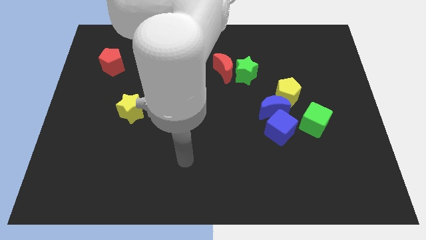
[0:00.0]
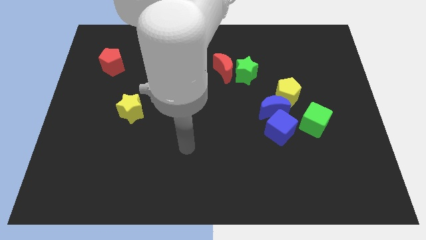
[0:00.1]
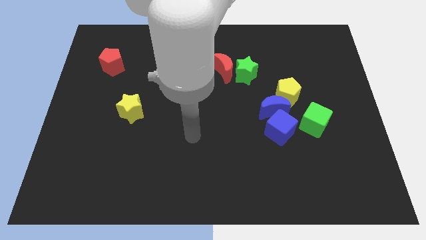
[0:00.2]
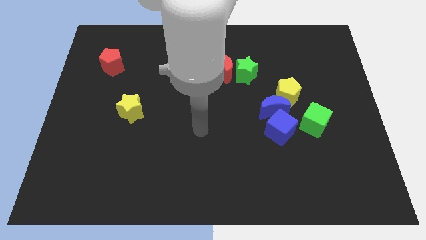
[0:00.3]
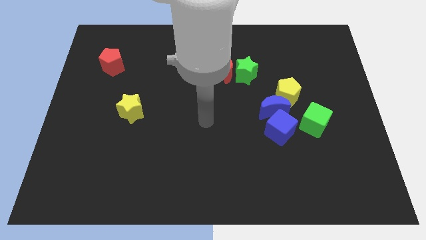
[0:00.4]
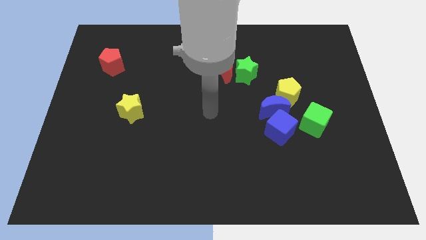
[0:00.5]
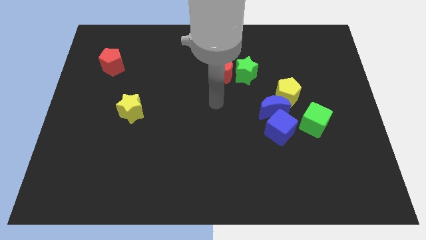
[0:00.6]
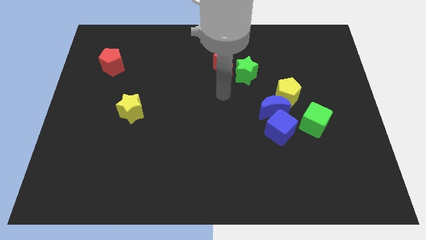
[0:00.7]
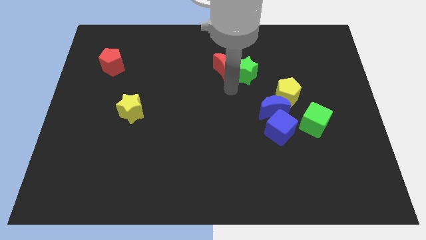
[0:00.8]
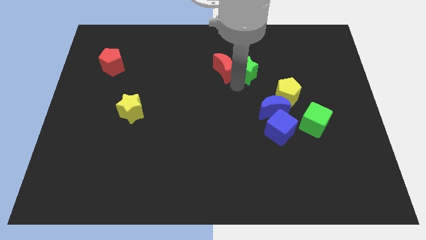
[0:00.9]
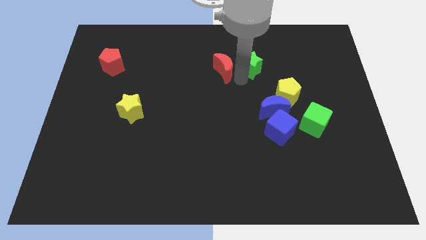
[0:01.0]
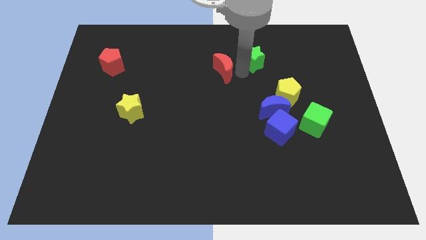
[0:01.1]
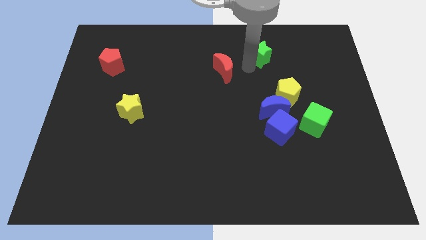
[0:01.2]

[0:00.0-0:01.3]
move the red moon away from the green star

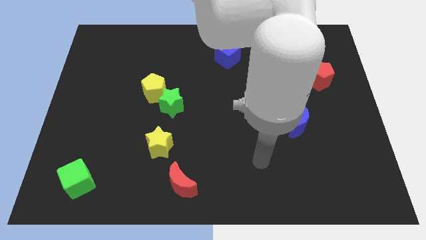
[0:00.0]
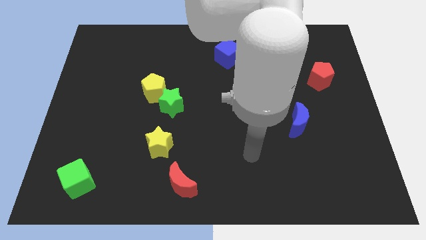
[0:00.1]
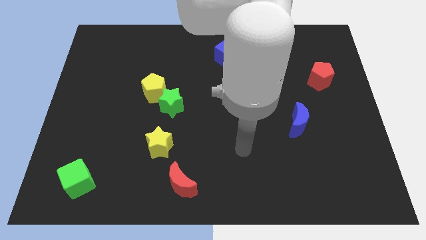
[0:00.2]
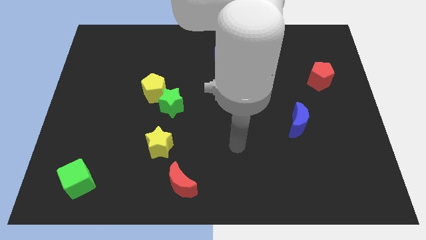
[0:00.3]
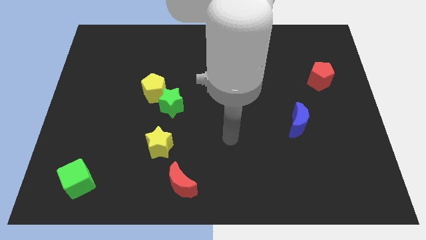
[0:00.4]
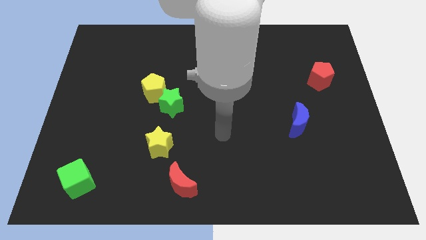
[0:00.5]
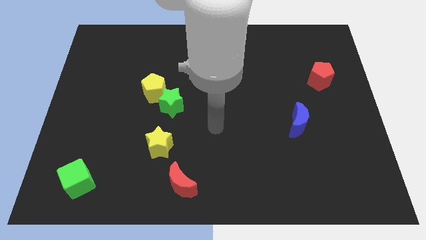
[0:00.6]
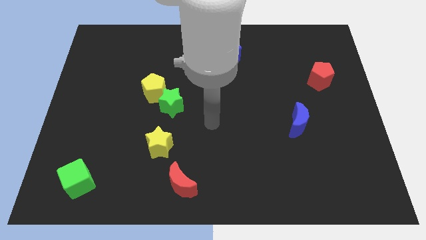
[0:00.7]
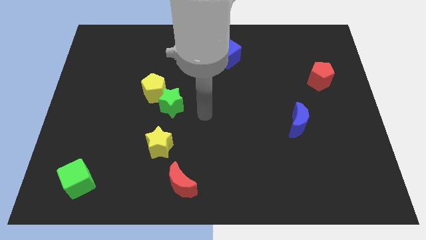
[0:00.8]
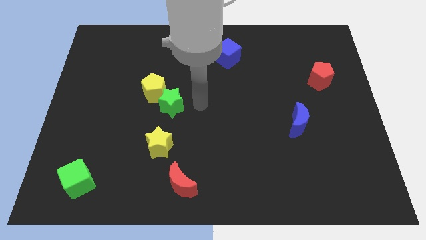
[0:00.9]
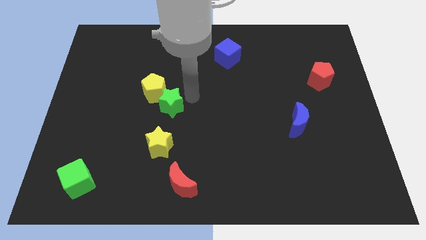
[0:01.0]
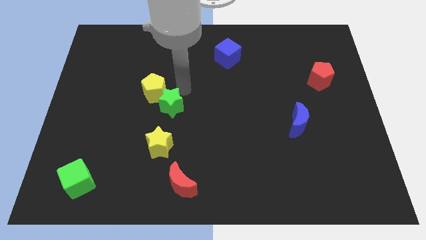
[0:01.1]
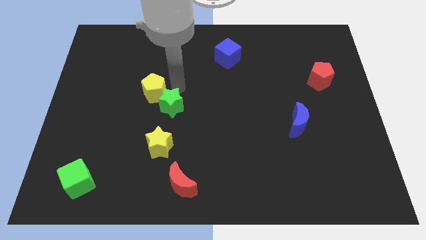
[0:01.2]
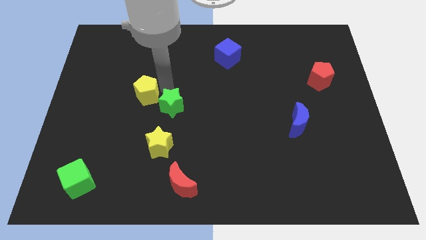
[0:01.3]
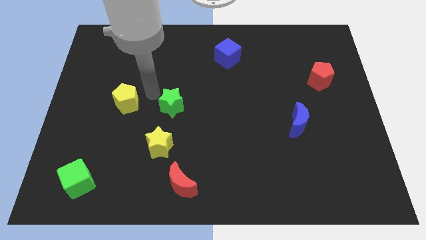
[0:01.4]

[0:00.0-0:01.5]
separate the green star from the yellow pentagon

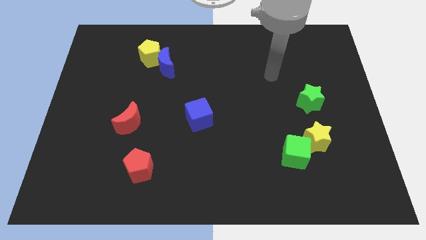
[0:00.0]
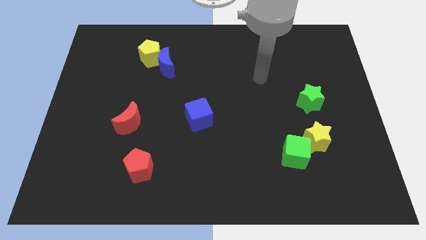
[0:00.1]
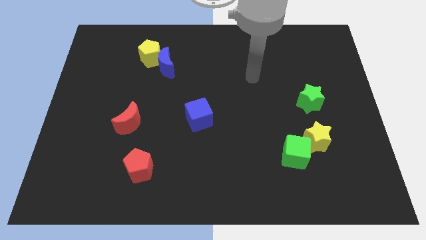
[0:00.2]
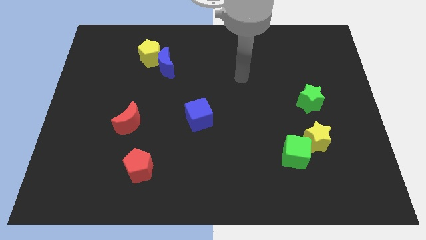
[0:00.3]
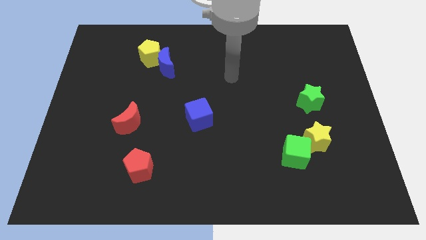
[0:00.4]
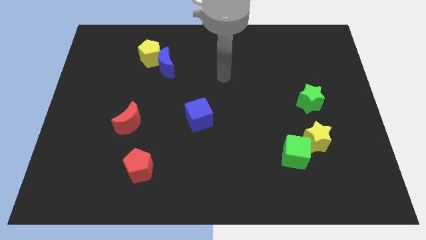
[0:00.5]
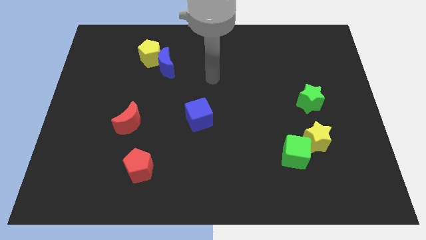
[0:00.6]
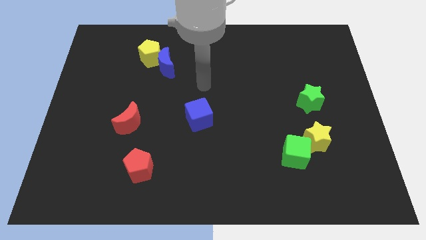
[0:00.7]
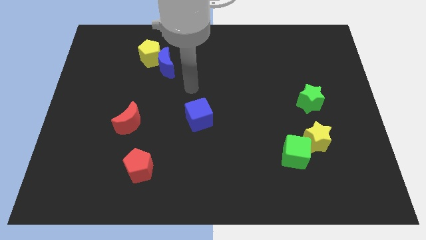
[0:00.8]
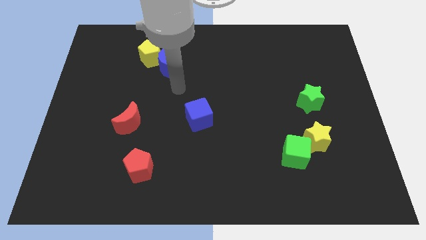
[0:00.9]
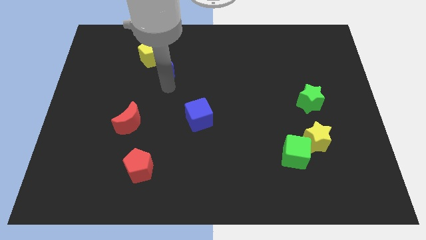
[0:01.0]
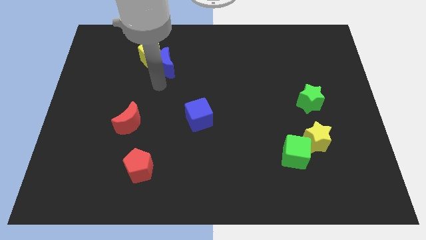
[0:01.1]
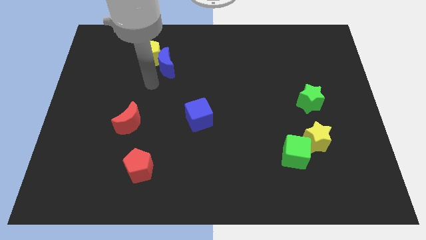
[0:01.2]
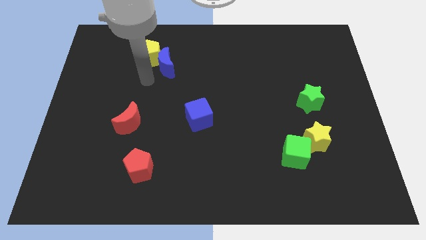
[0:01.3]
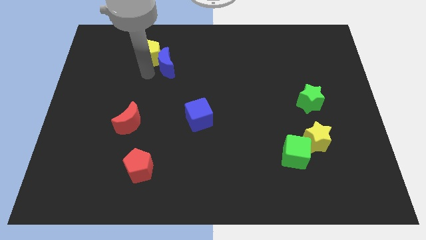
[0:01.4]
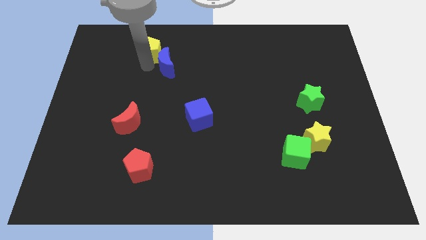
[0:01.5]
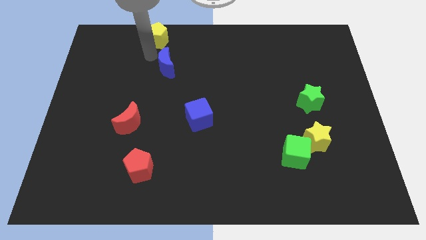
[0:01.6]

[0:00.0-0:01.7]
separate the blue moon from the yellow pentagon

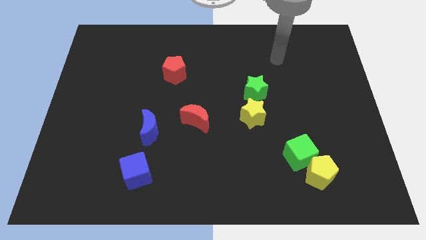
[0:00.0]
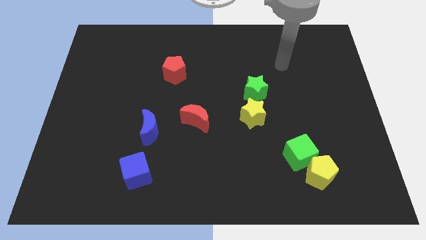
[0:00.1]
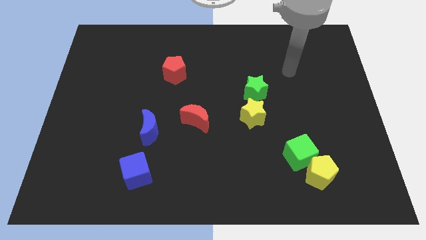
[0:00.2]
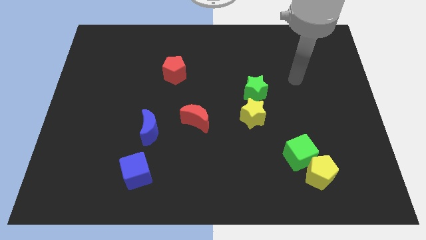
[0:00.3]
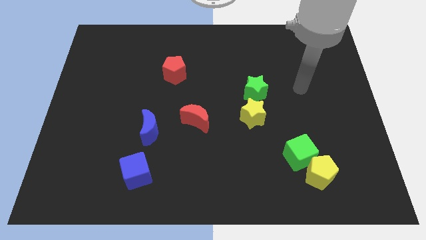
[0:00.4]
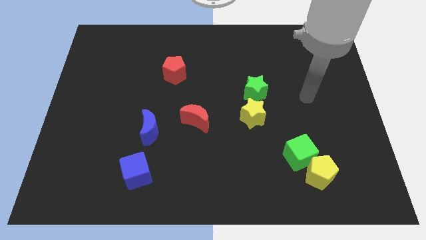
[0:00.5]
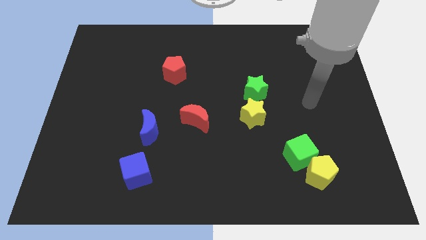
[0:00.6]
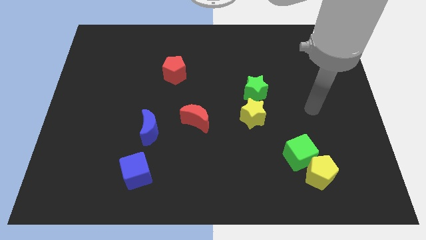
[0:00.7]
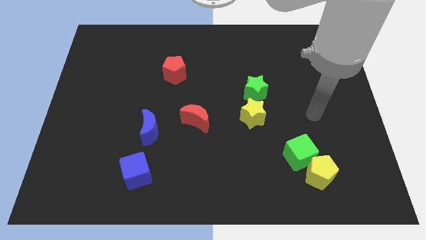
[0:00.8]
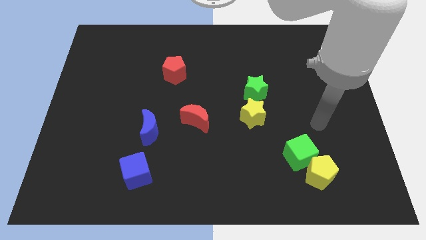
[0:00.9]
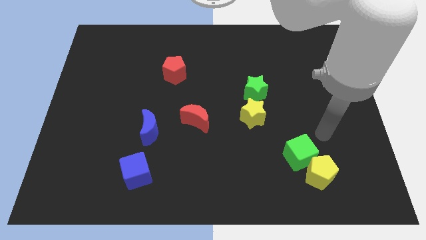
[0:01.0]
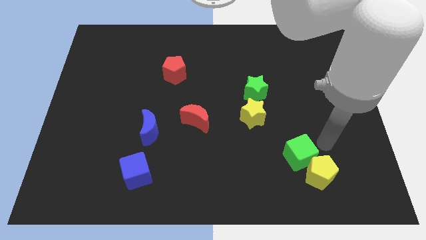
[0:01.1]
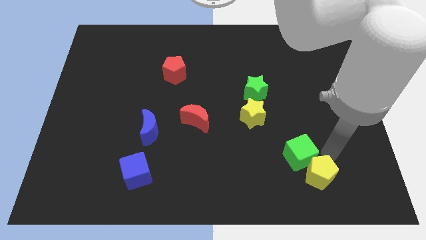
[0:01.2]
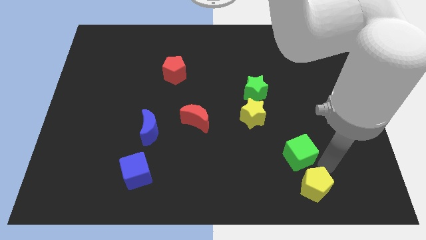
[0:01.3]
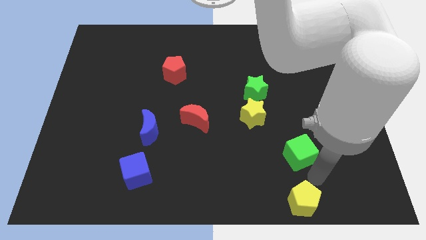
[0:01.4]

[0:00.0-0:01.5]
separate the green cube from the yellow pentagon

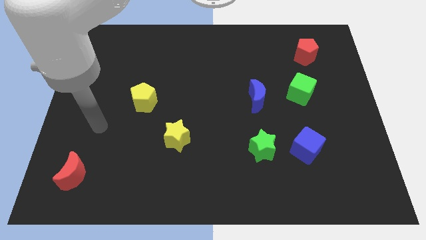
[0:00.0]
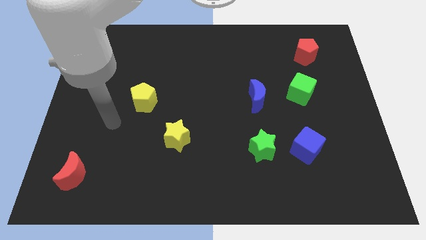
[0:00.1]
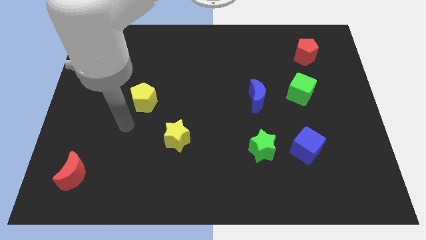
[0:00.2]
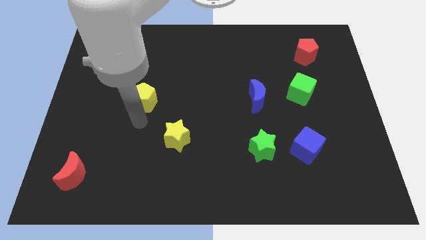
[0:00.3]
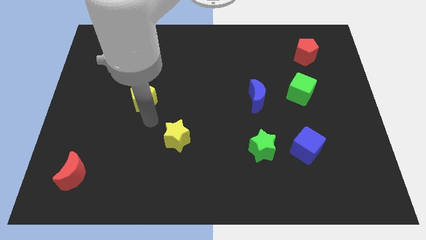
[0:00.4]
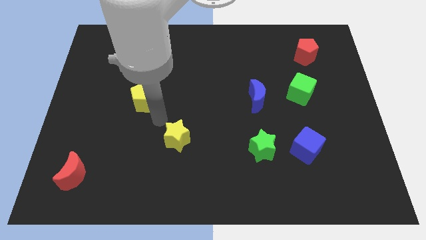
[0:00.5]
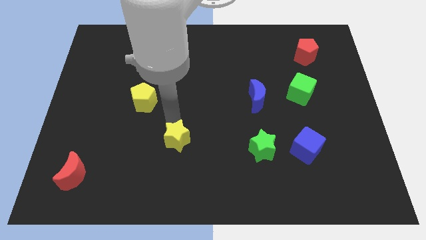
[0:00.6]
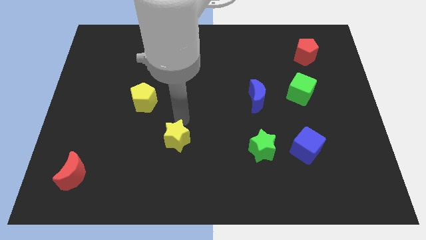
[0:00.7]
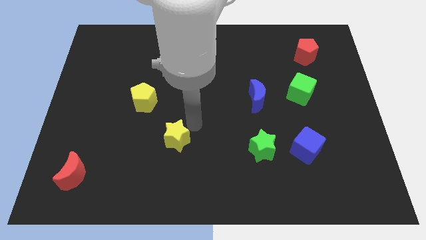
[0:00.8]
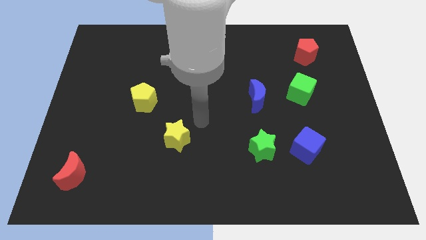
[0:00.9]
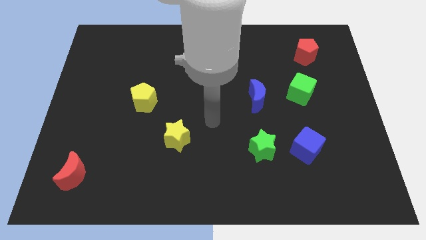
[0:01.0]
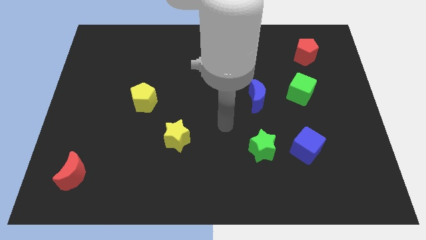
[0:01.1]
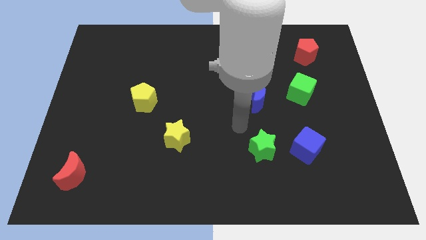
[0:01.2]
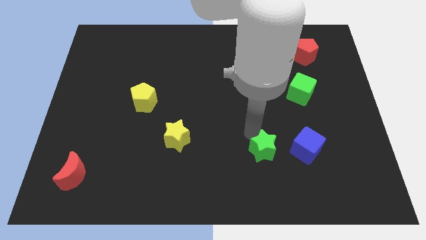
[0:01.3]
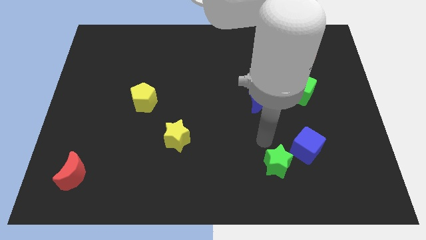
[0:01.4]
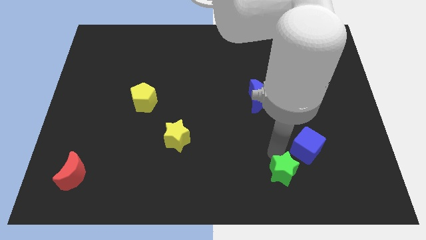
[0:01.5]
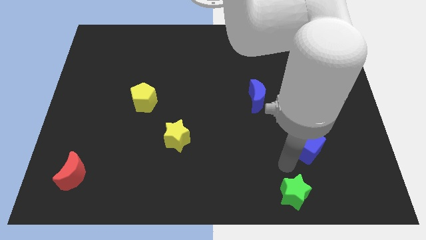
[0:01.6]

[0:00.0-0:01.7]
move the blue cube away from the green star

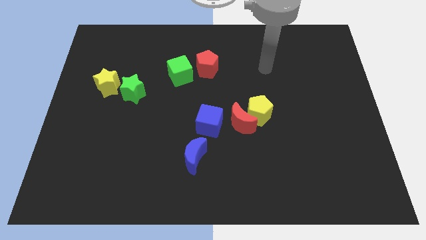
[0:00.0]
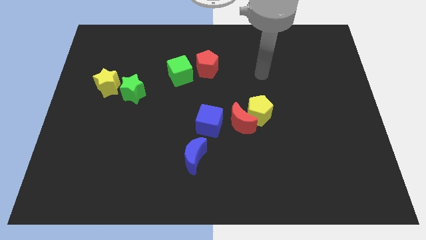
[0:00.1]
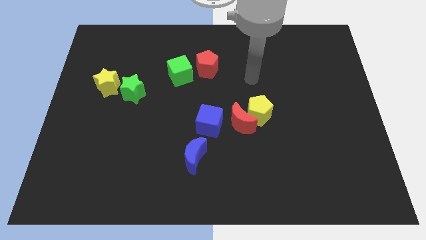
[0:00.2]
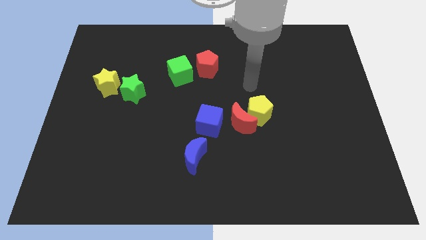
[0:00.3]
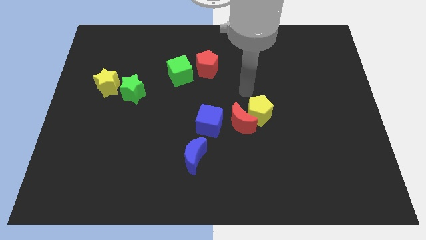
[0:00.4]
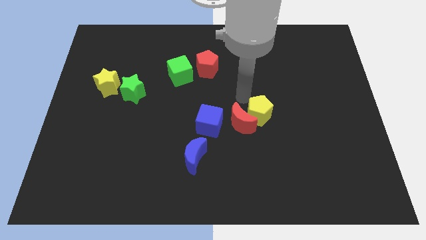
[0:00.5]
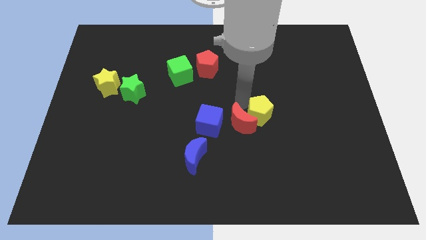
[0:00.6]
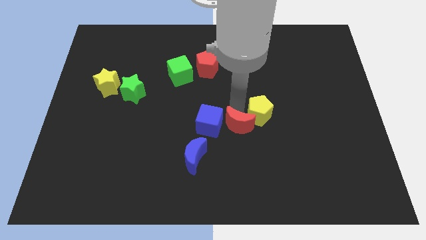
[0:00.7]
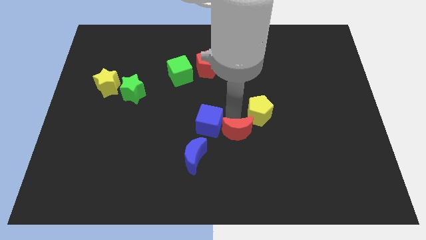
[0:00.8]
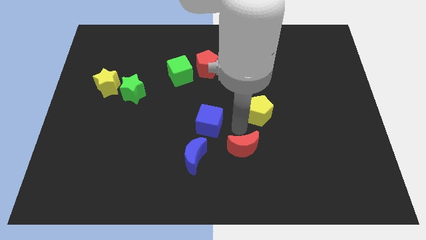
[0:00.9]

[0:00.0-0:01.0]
move the yellow pentagon away from the red moon

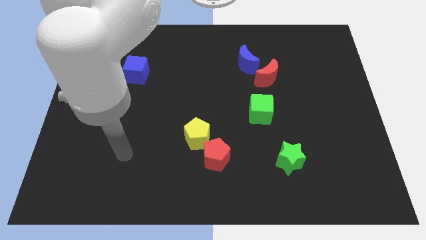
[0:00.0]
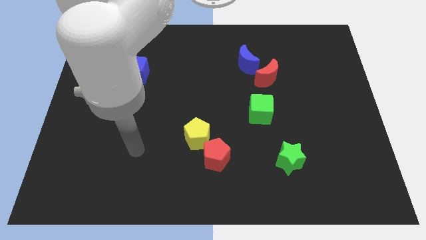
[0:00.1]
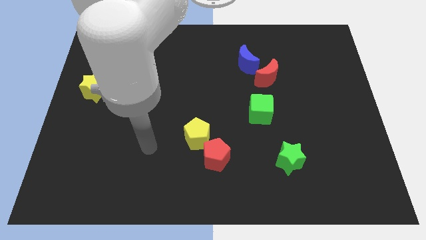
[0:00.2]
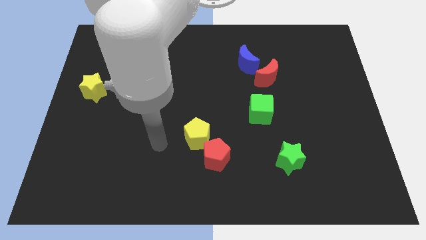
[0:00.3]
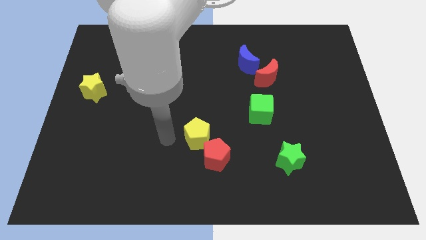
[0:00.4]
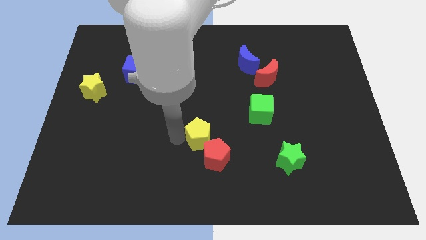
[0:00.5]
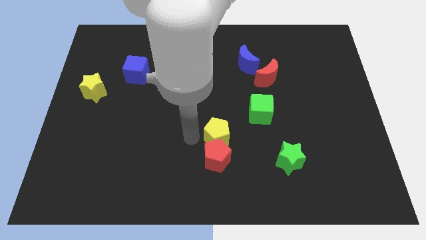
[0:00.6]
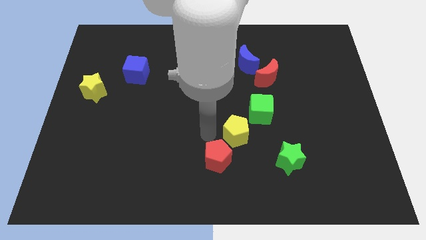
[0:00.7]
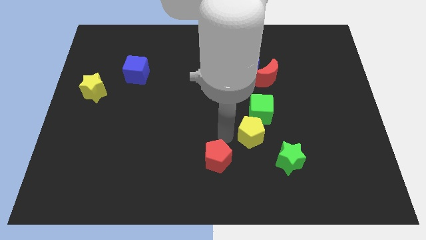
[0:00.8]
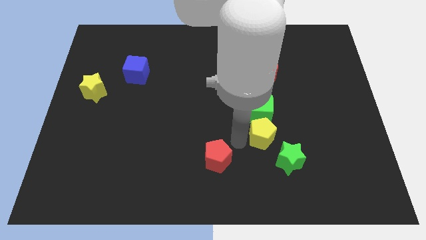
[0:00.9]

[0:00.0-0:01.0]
move the red pentagon away from the yellow pentagon
